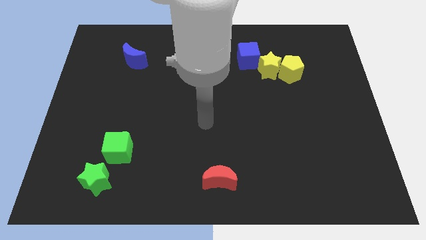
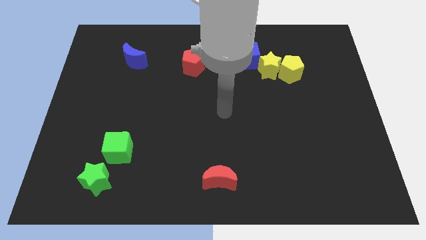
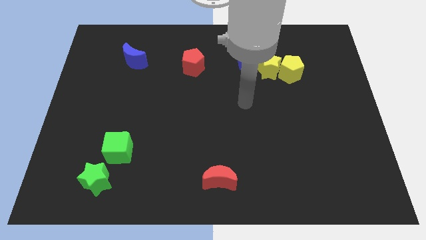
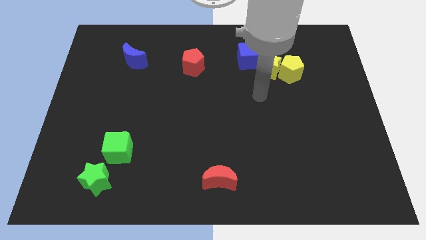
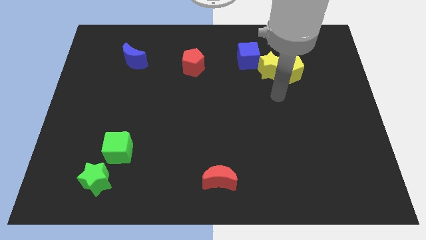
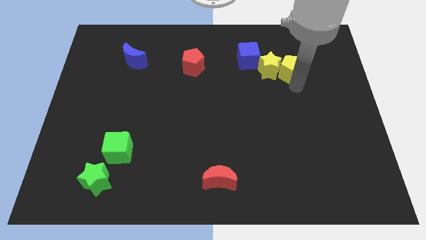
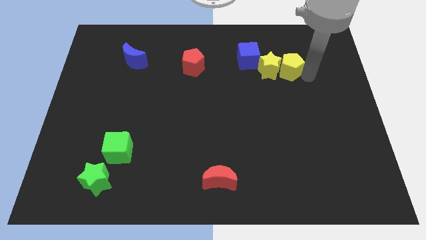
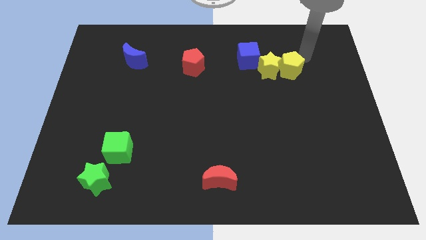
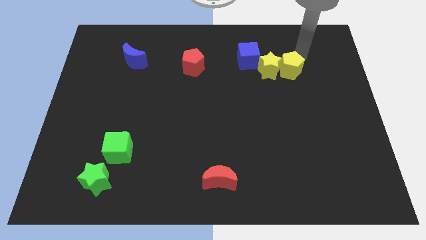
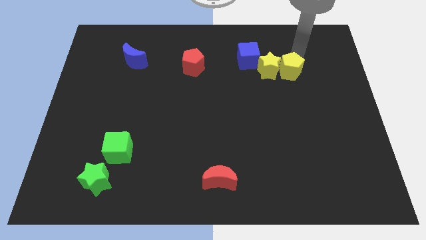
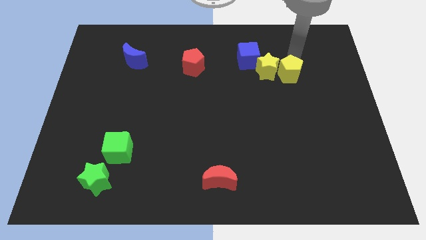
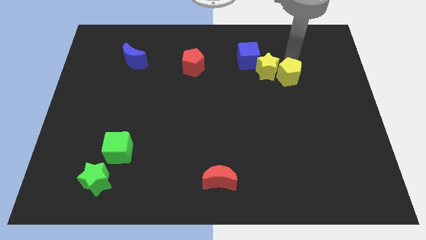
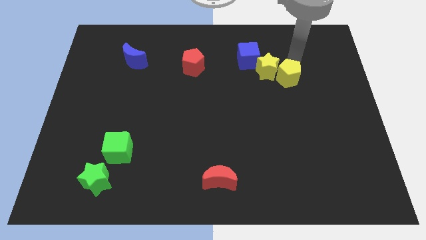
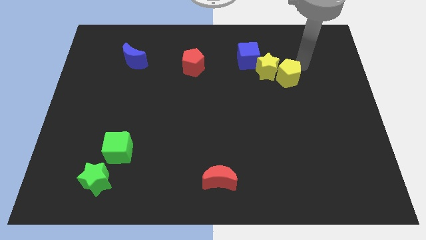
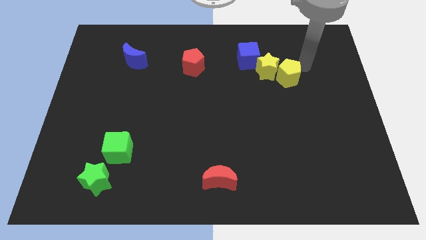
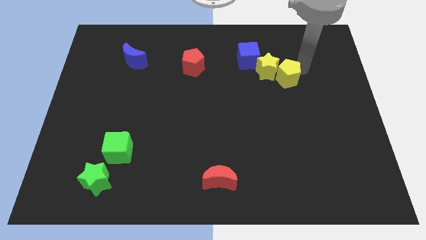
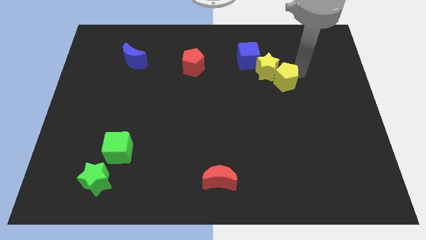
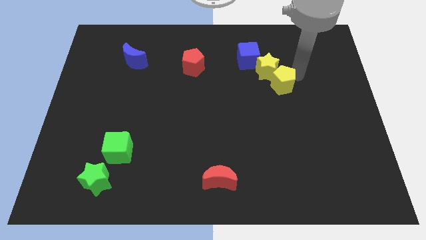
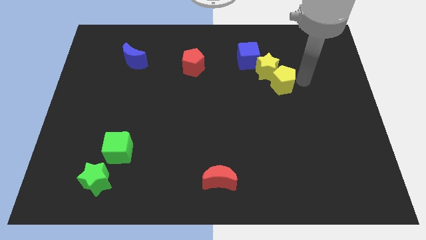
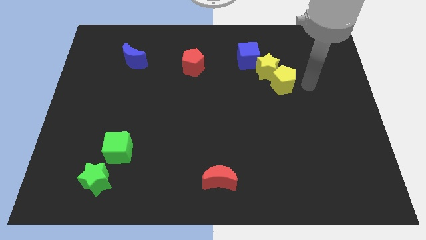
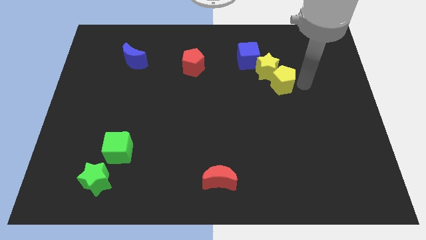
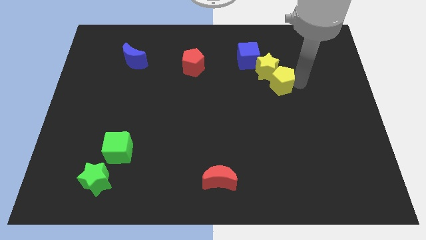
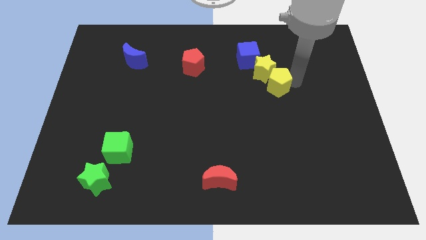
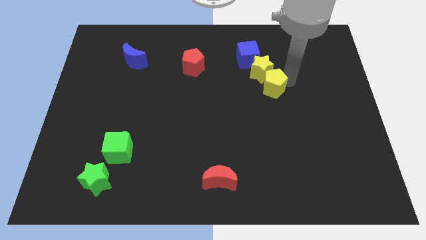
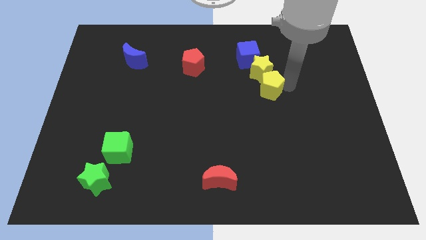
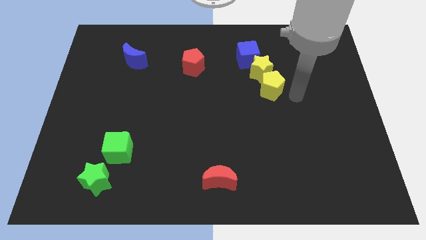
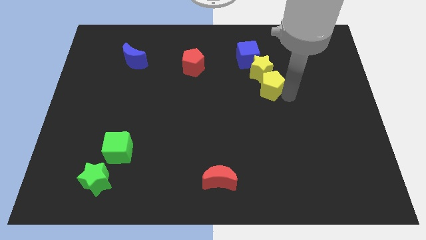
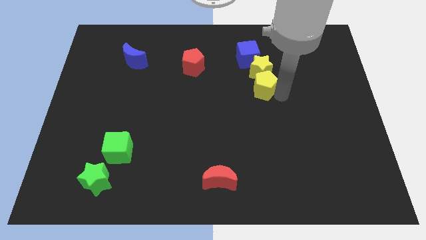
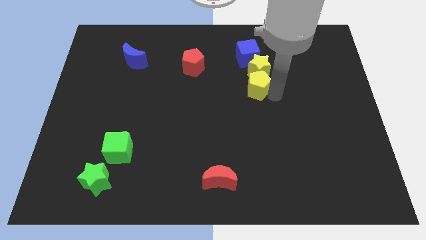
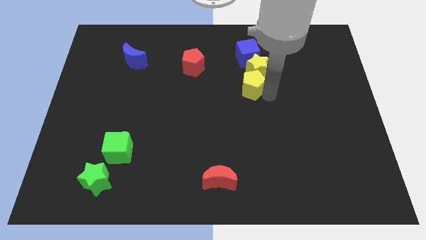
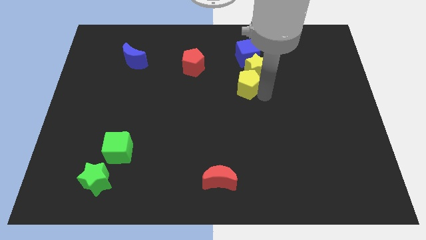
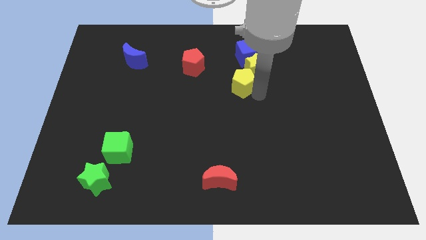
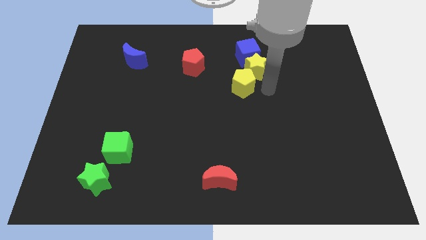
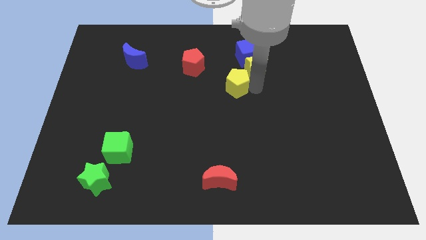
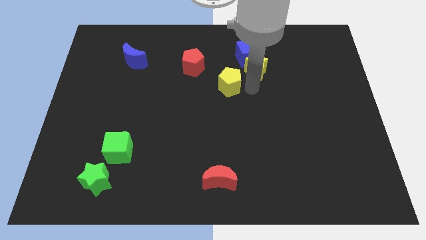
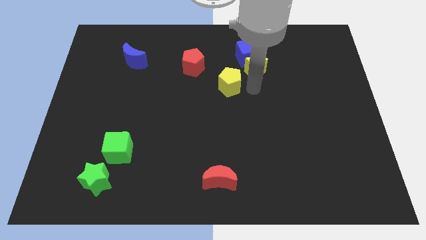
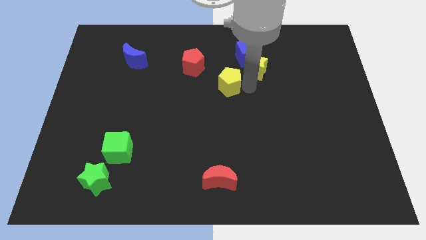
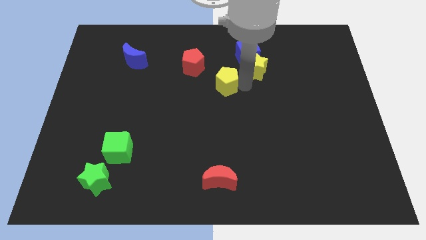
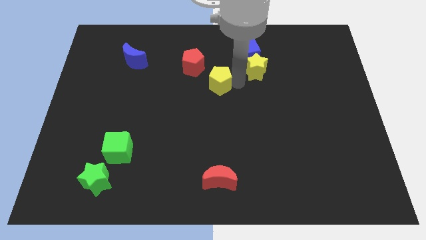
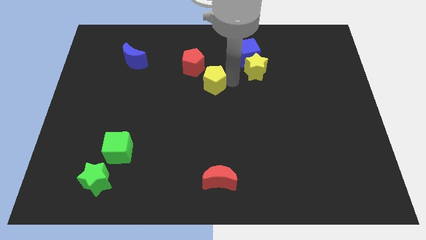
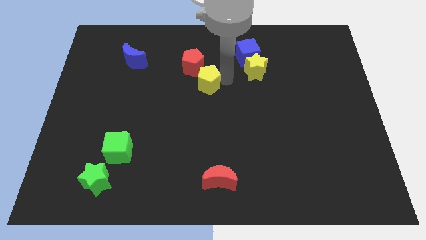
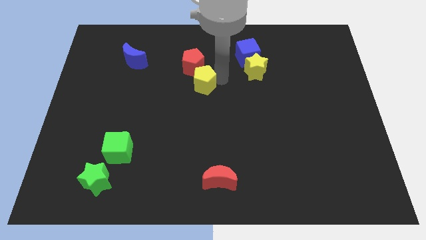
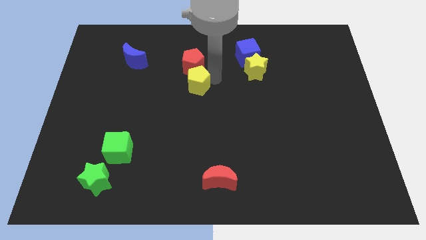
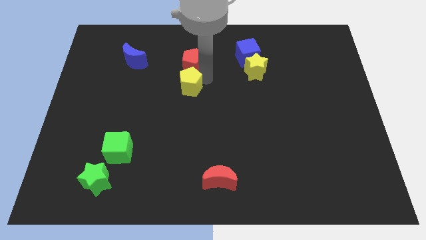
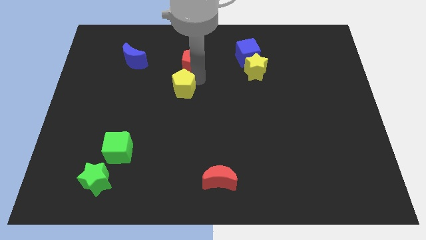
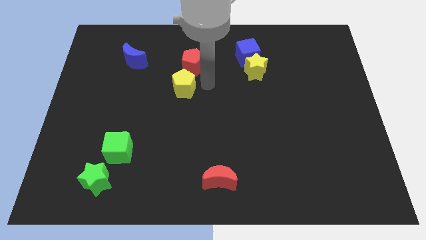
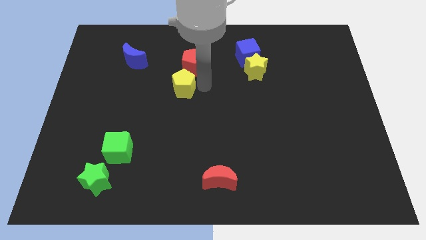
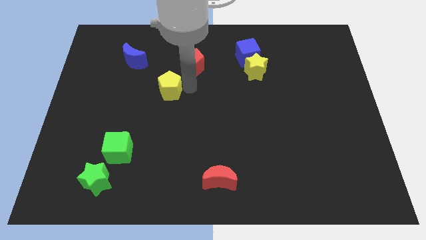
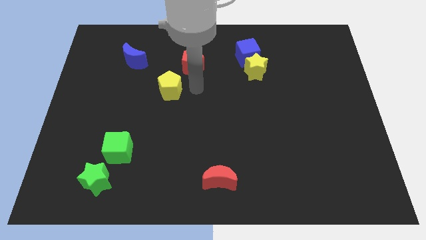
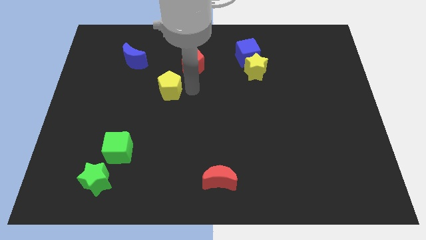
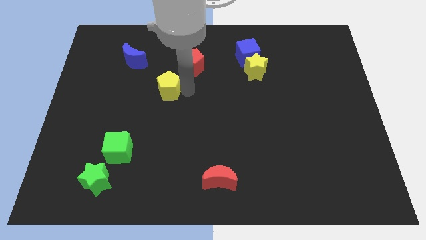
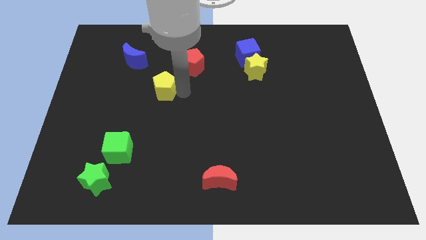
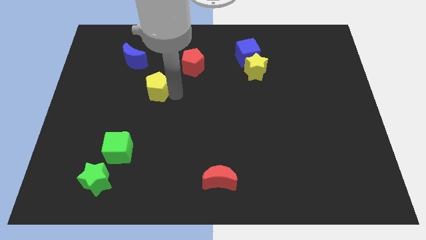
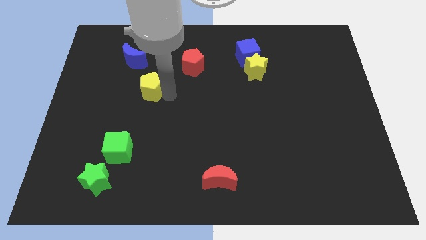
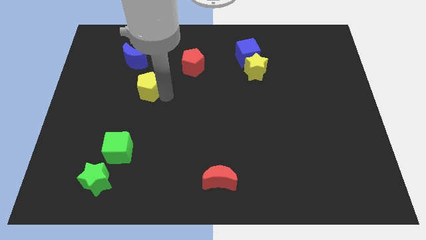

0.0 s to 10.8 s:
slide the yellow pentagon to the bottom side of the blue moon

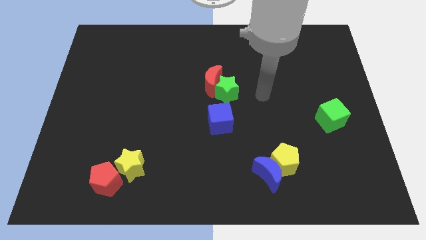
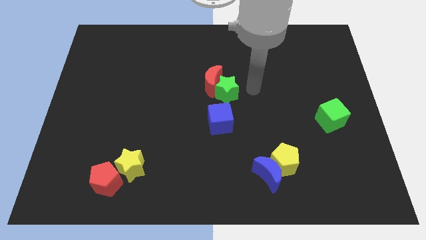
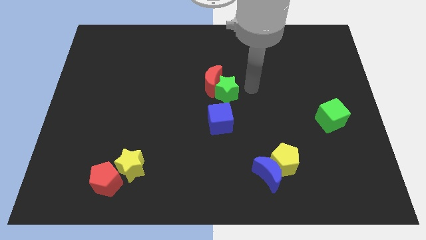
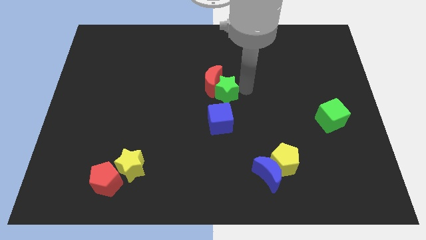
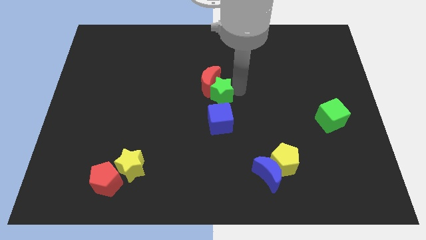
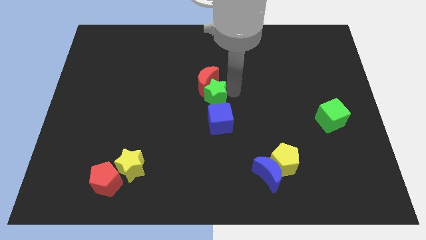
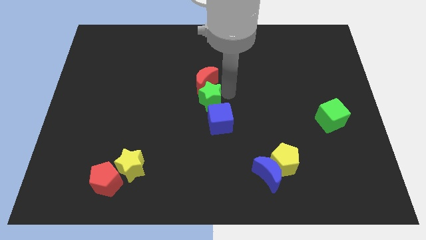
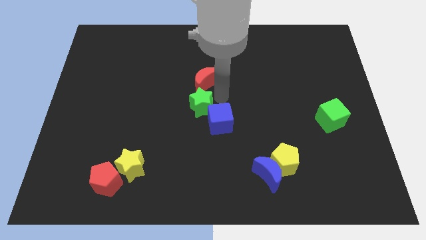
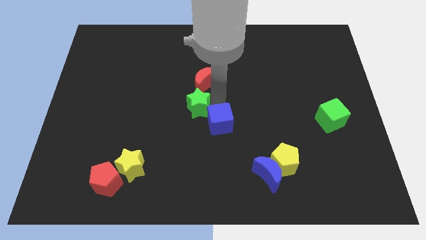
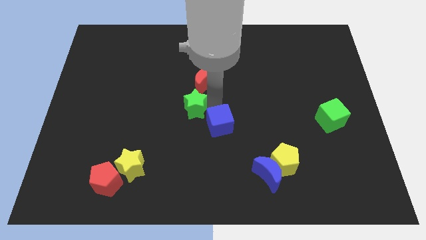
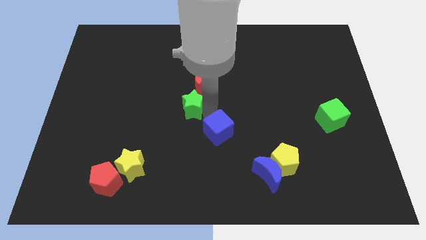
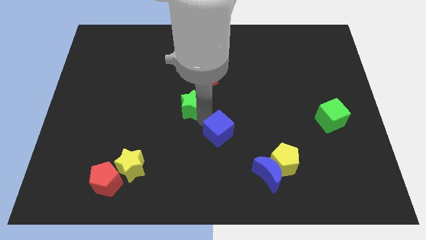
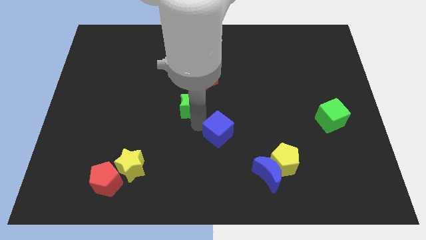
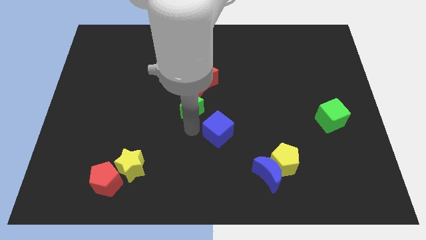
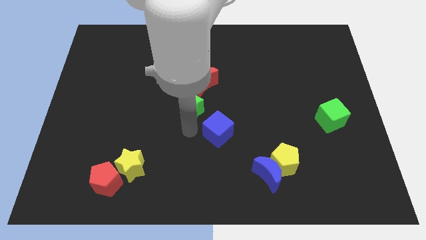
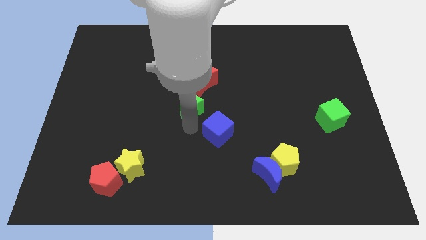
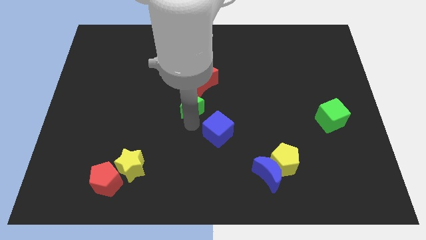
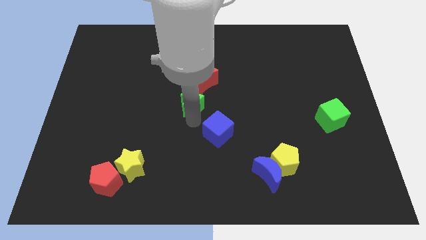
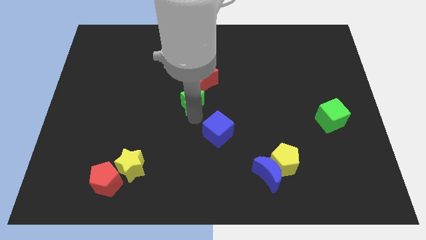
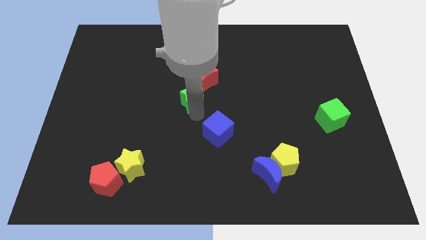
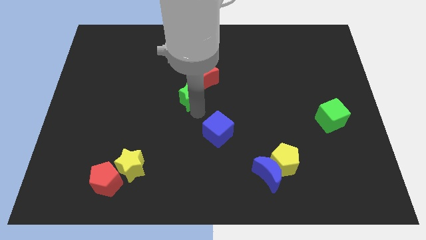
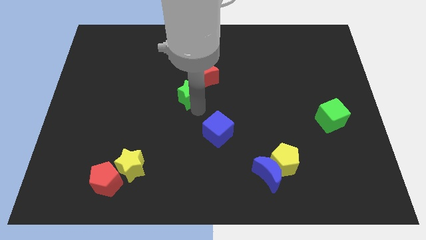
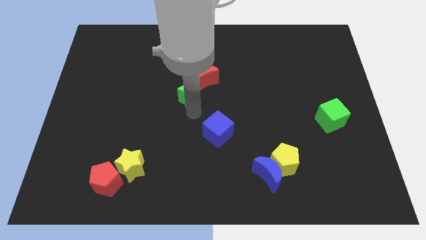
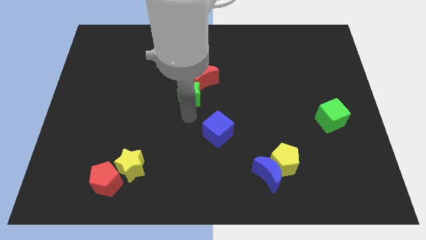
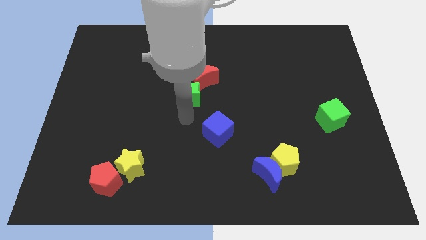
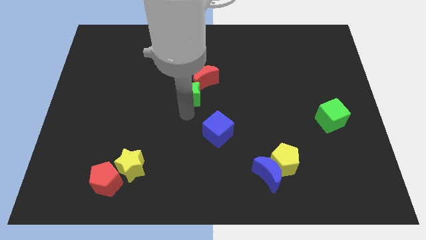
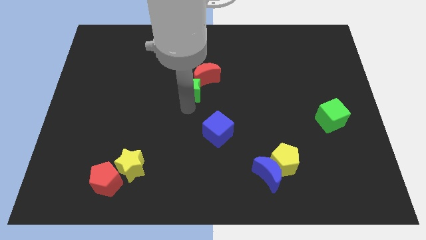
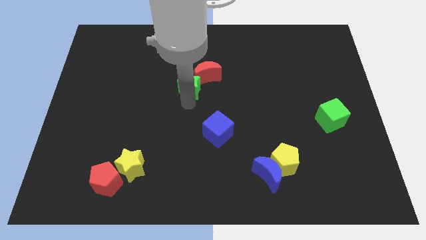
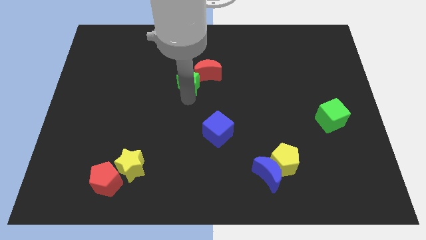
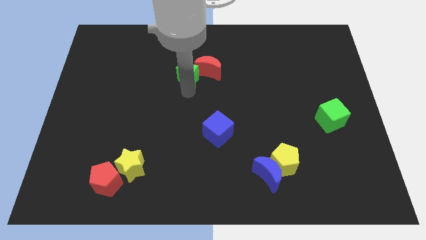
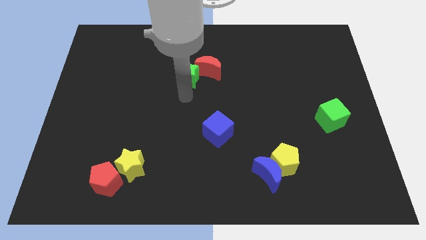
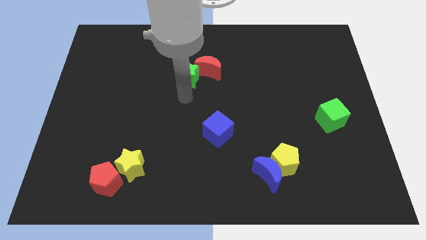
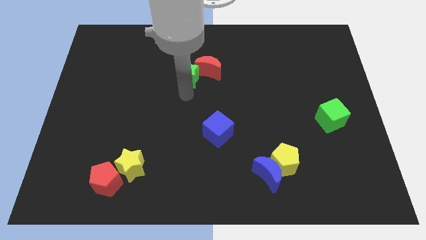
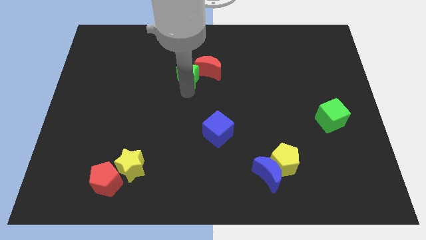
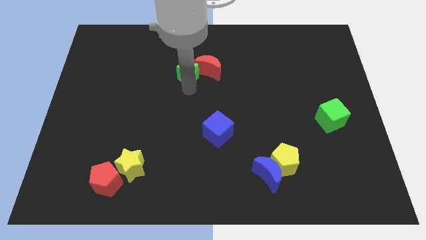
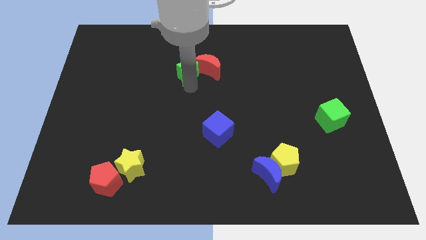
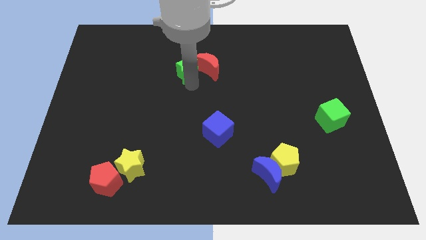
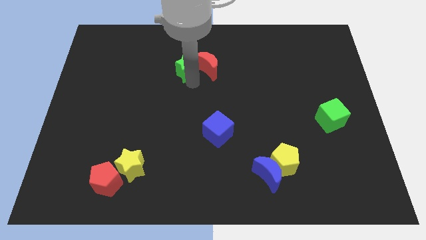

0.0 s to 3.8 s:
slide the green star to the top left of the red moon
